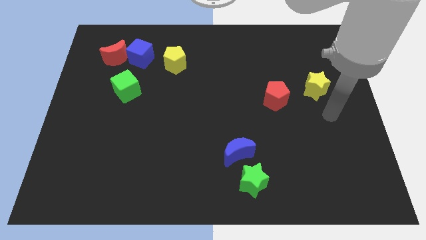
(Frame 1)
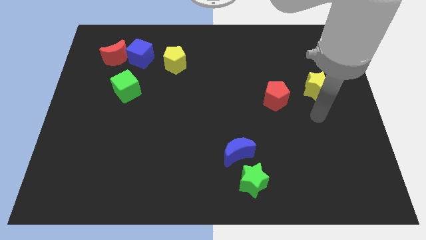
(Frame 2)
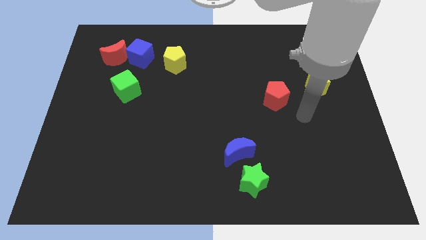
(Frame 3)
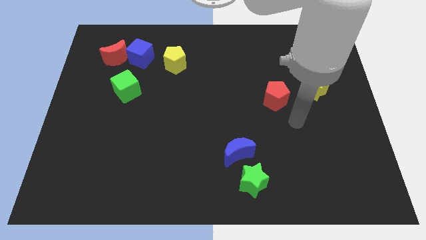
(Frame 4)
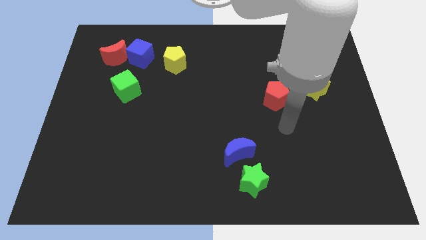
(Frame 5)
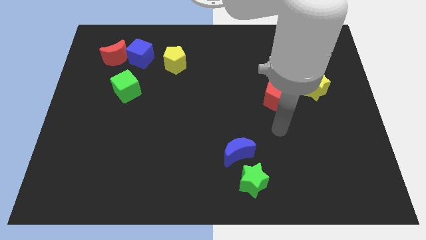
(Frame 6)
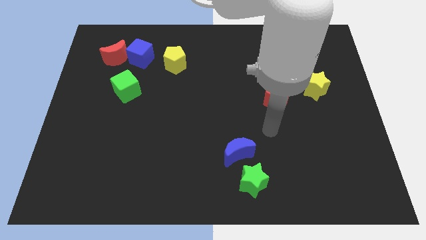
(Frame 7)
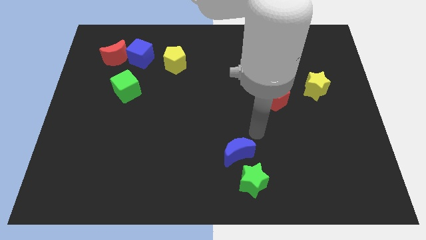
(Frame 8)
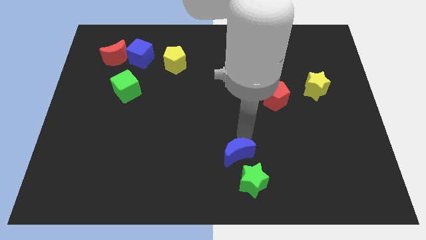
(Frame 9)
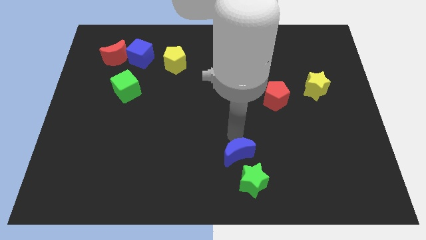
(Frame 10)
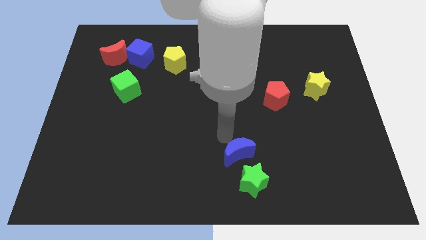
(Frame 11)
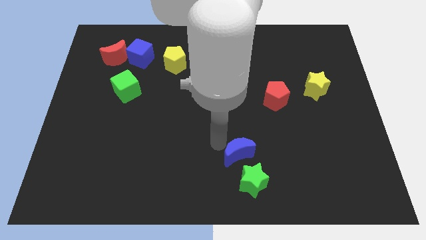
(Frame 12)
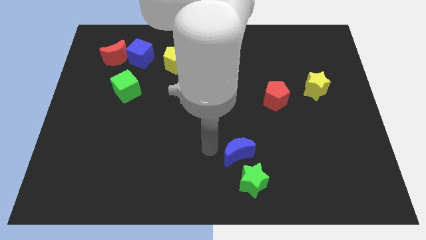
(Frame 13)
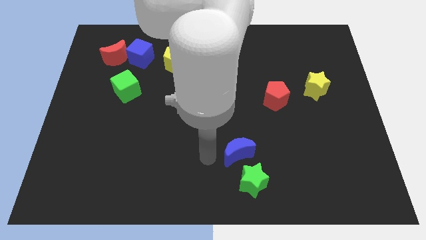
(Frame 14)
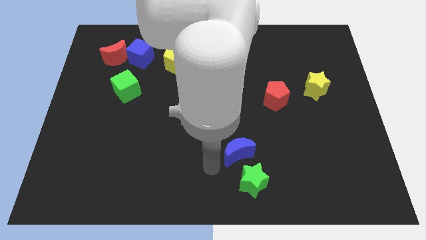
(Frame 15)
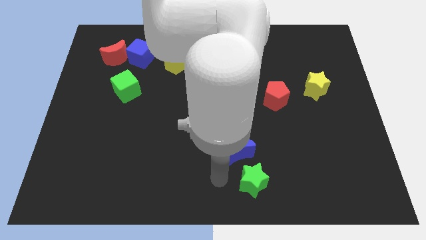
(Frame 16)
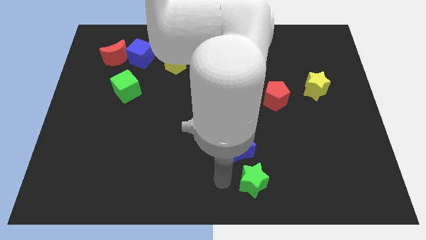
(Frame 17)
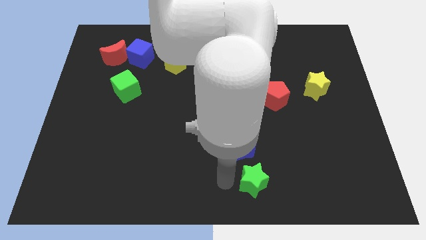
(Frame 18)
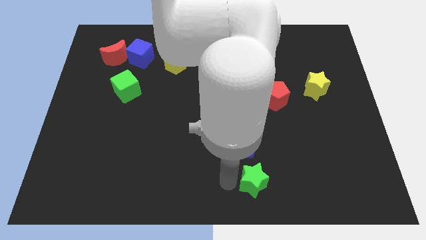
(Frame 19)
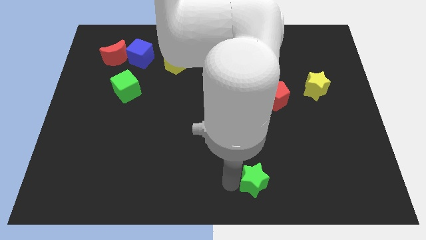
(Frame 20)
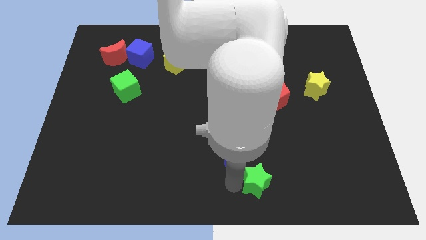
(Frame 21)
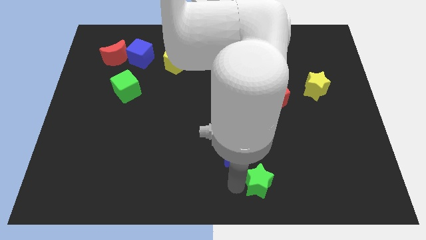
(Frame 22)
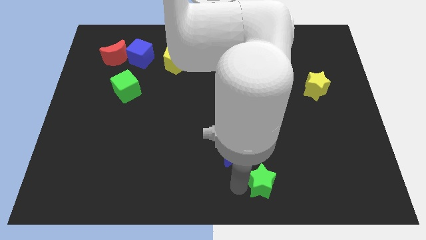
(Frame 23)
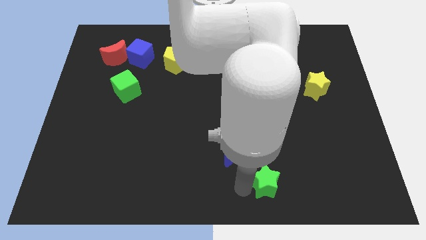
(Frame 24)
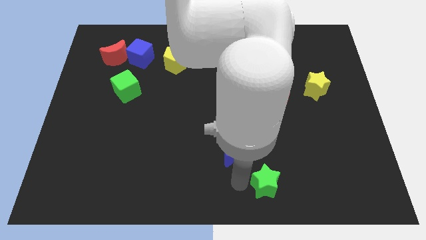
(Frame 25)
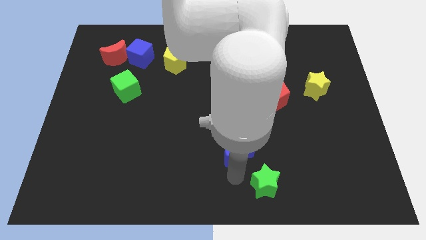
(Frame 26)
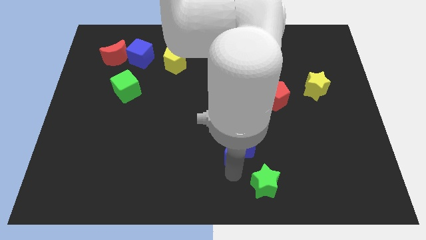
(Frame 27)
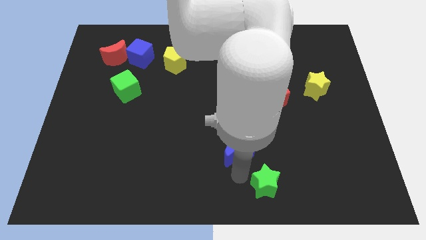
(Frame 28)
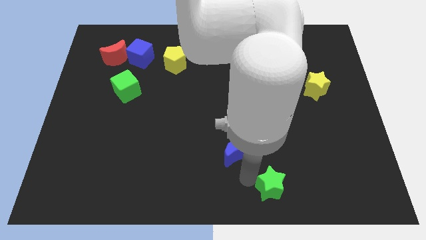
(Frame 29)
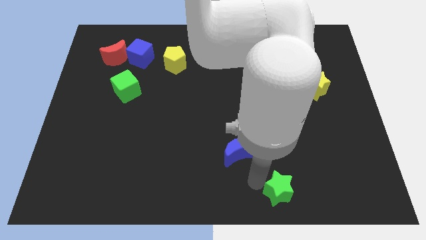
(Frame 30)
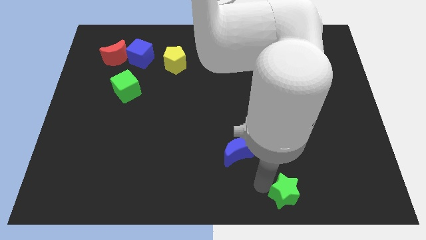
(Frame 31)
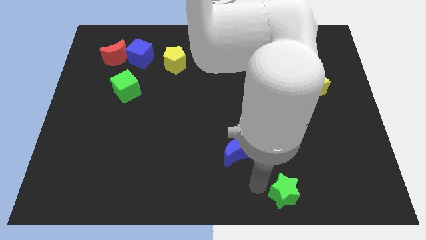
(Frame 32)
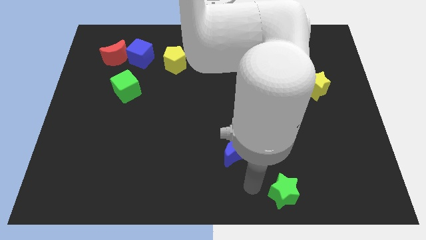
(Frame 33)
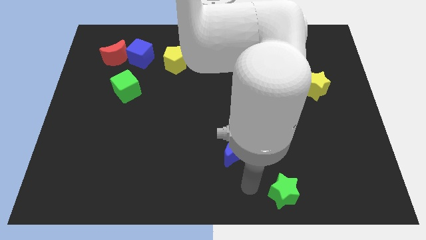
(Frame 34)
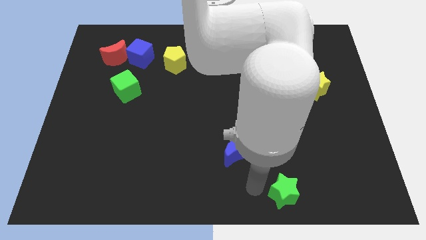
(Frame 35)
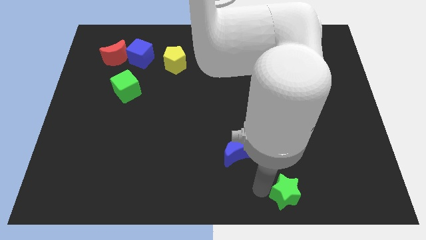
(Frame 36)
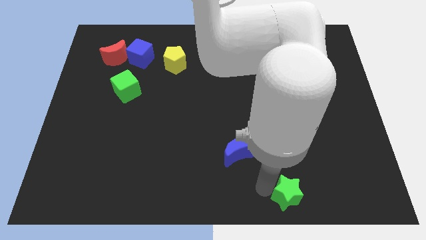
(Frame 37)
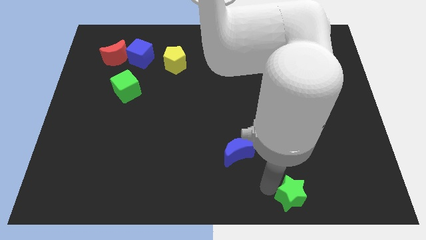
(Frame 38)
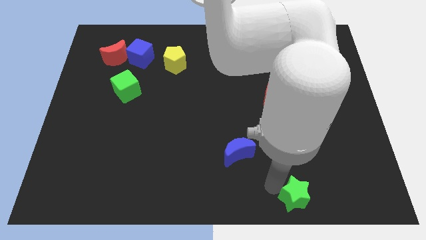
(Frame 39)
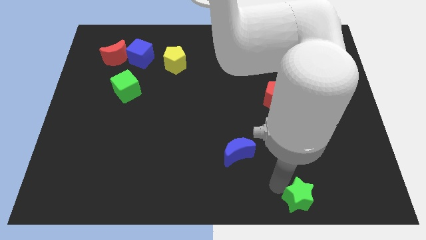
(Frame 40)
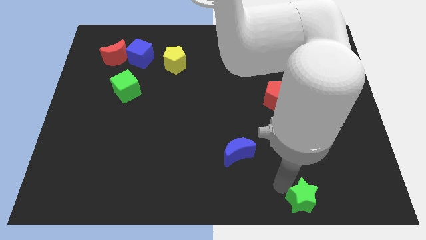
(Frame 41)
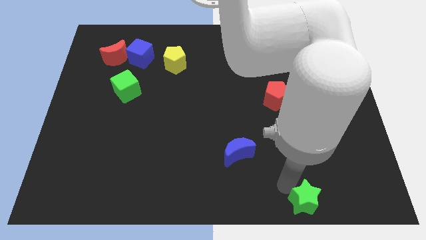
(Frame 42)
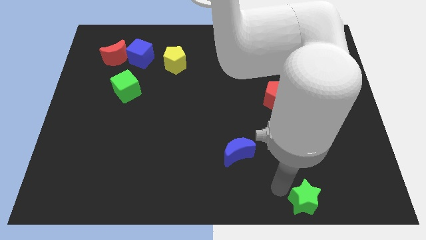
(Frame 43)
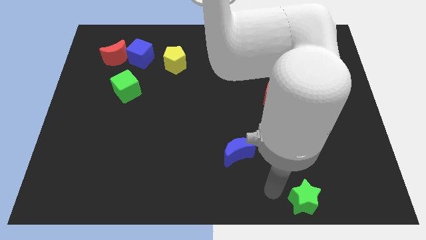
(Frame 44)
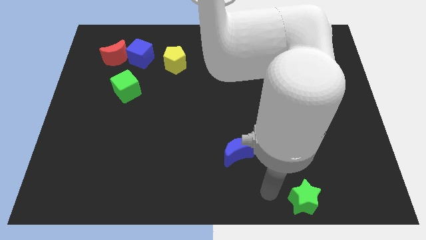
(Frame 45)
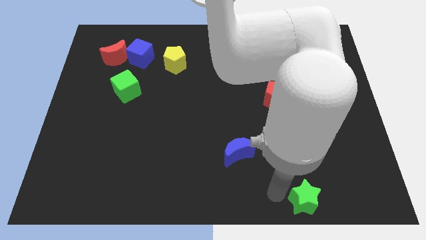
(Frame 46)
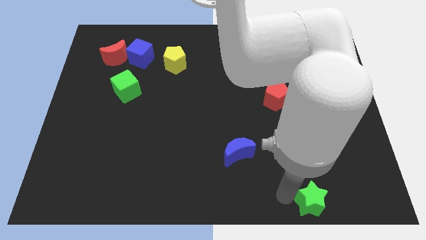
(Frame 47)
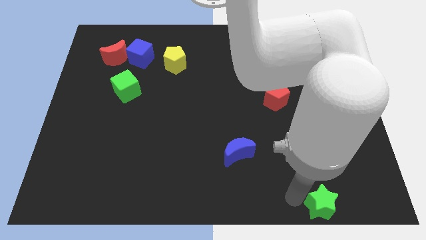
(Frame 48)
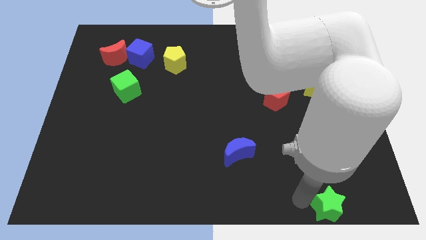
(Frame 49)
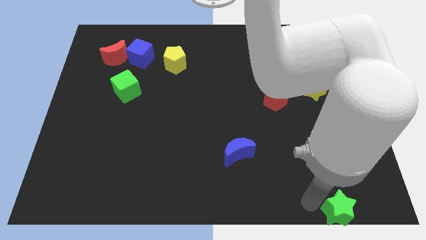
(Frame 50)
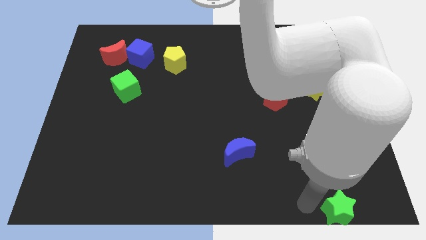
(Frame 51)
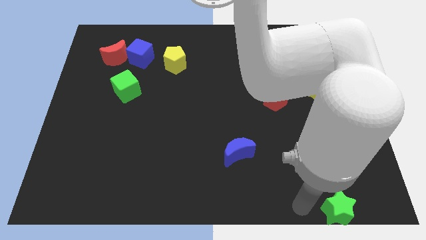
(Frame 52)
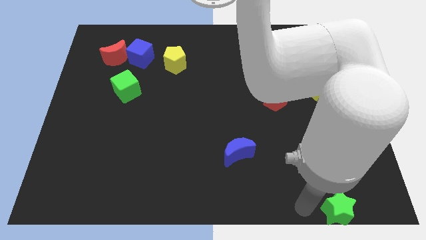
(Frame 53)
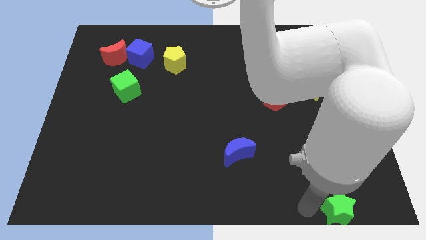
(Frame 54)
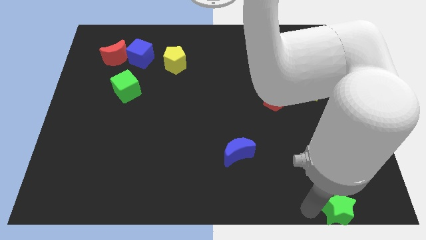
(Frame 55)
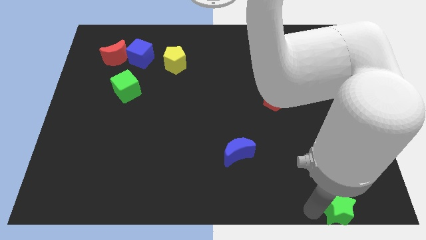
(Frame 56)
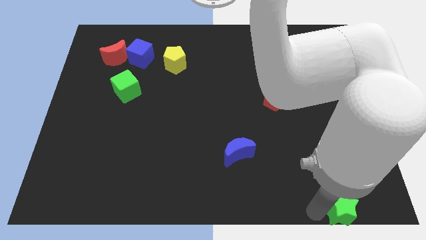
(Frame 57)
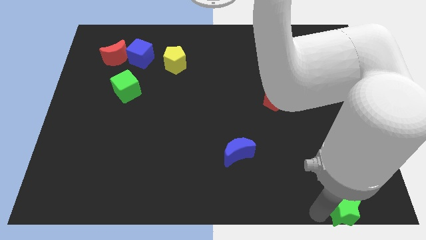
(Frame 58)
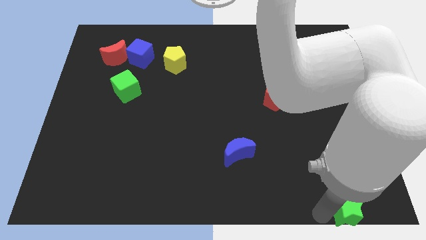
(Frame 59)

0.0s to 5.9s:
slide the green star to the bottom right

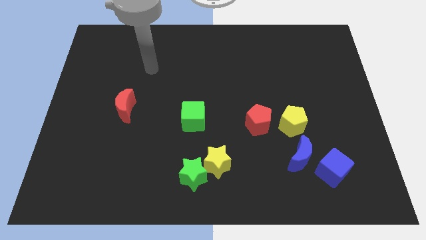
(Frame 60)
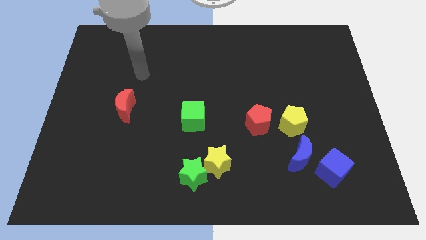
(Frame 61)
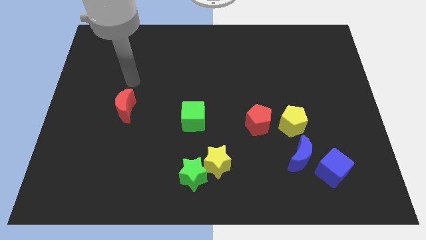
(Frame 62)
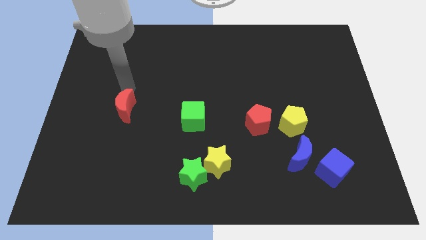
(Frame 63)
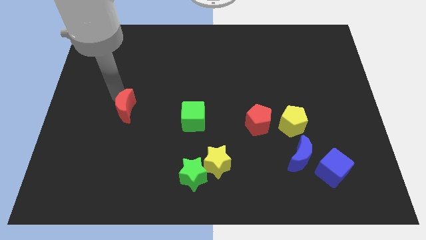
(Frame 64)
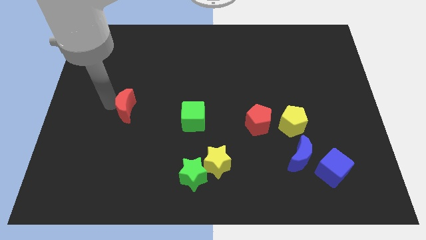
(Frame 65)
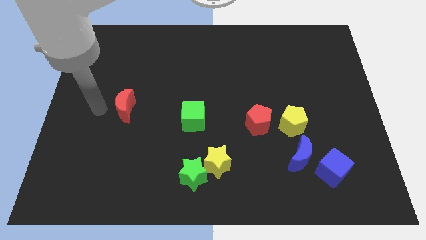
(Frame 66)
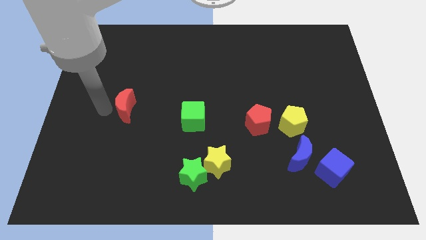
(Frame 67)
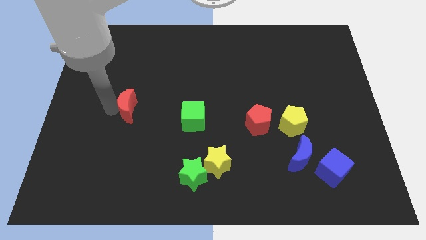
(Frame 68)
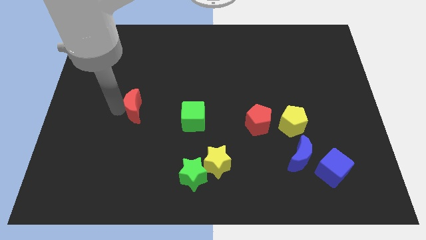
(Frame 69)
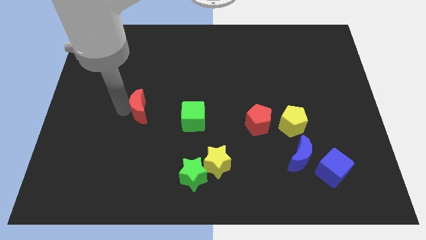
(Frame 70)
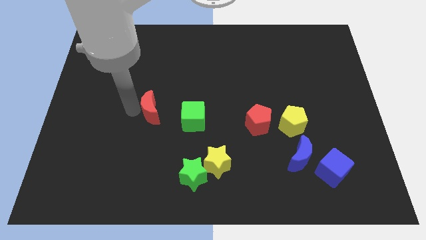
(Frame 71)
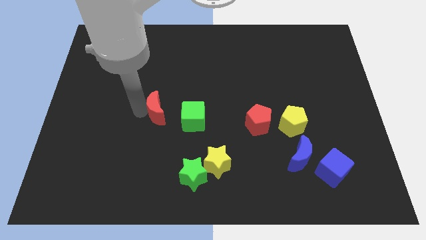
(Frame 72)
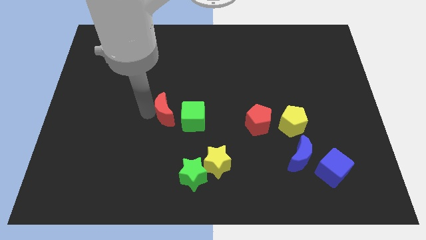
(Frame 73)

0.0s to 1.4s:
slide the red moon to the middle
